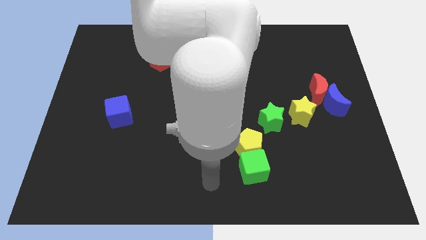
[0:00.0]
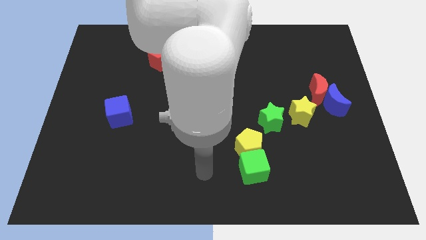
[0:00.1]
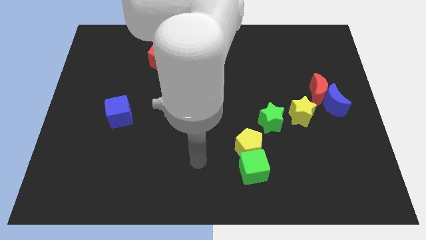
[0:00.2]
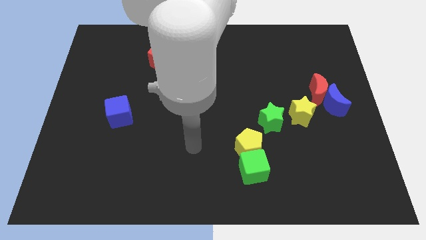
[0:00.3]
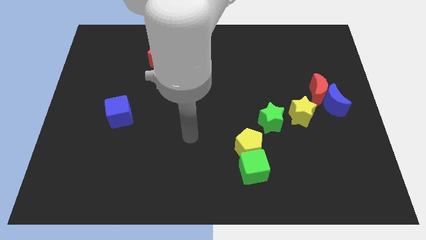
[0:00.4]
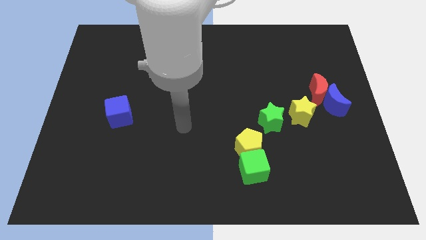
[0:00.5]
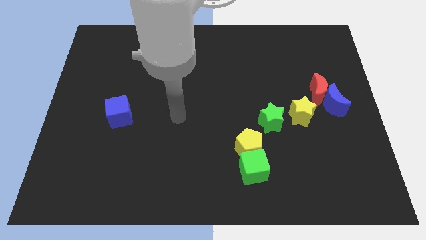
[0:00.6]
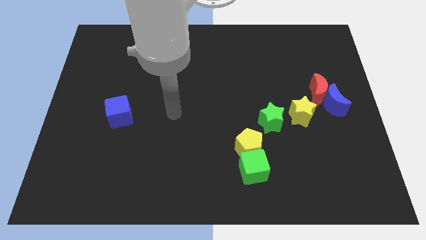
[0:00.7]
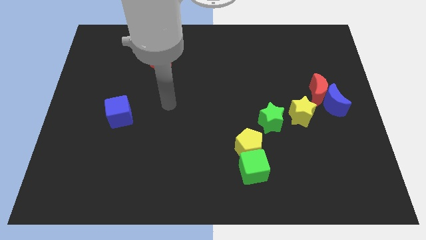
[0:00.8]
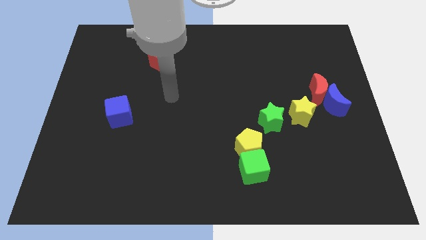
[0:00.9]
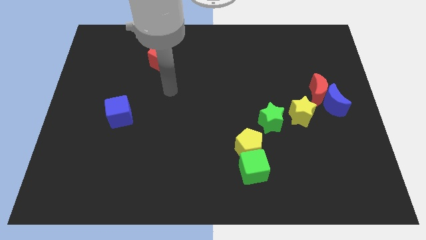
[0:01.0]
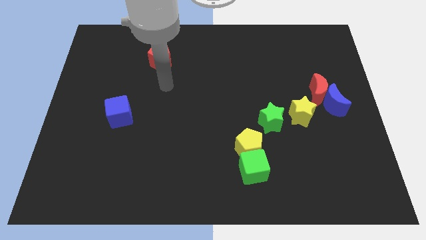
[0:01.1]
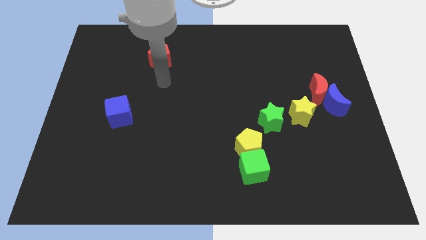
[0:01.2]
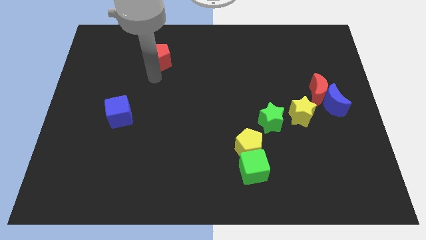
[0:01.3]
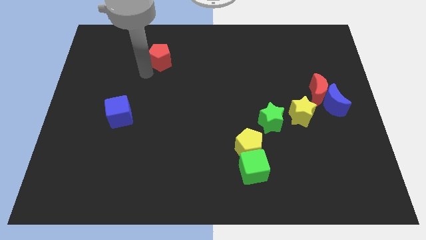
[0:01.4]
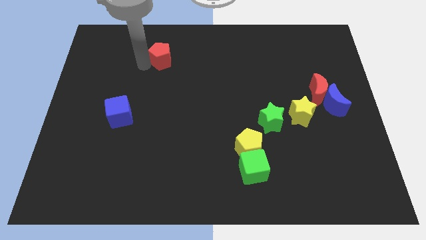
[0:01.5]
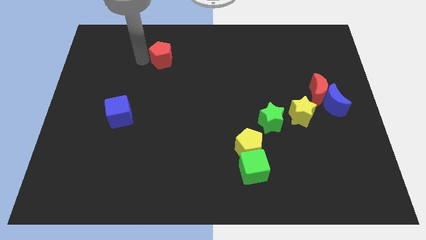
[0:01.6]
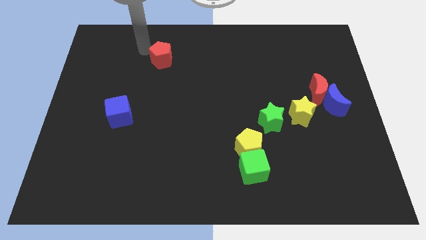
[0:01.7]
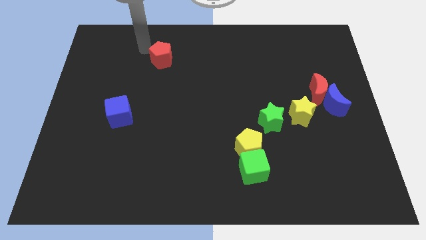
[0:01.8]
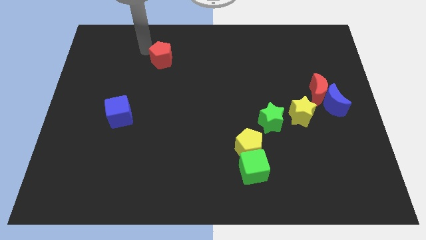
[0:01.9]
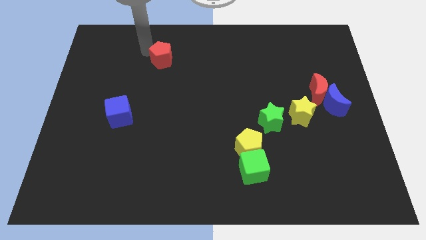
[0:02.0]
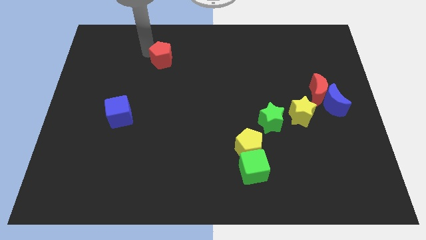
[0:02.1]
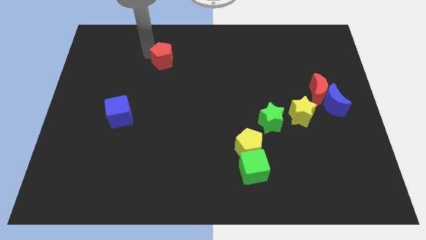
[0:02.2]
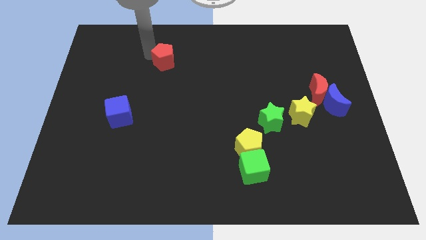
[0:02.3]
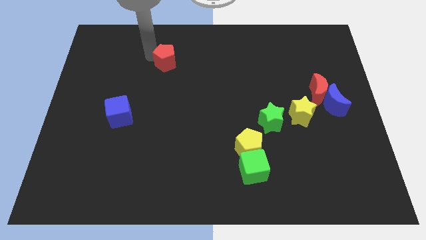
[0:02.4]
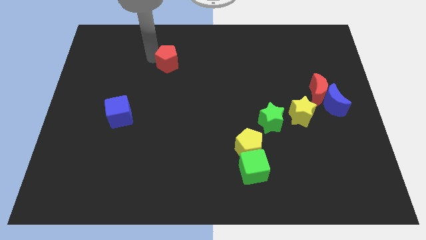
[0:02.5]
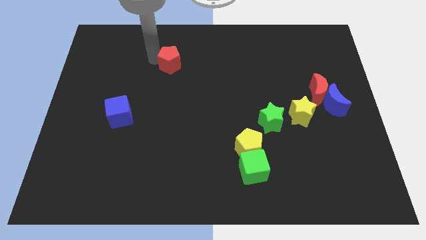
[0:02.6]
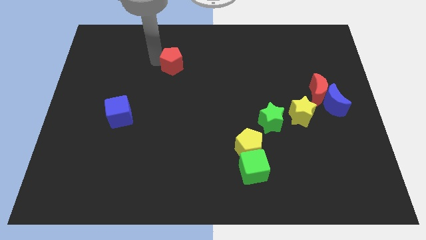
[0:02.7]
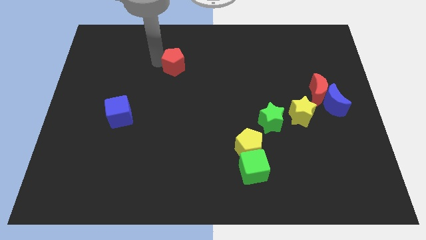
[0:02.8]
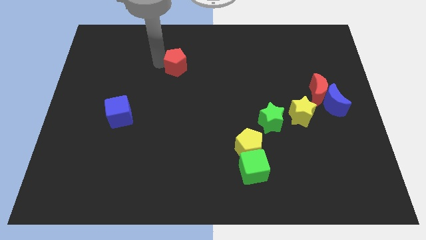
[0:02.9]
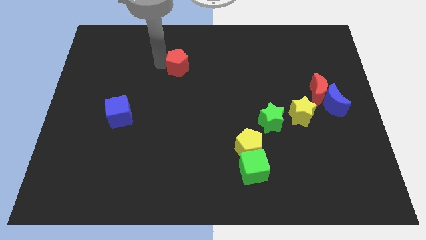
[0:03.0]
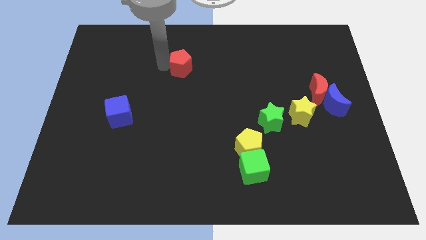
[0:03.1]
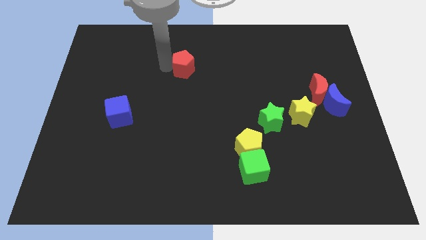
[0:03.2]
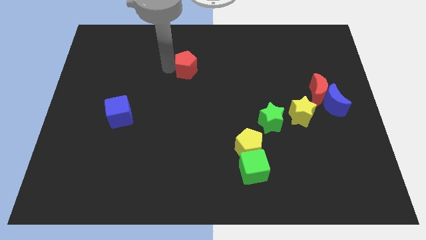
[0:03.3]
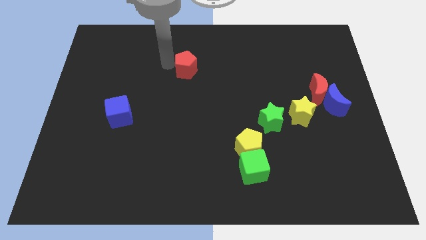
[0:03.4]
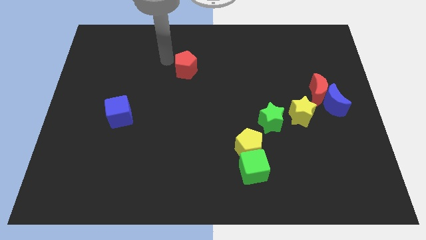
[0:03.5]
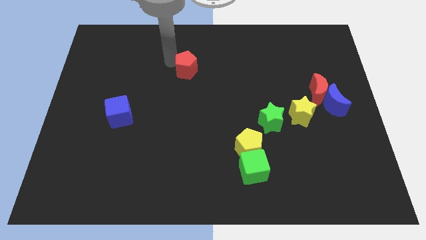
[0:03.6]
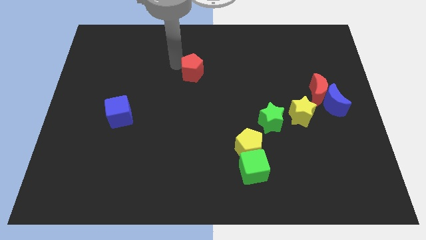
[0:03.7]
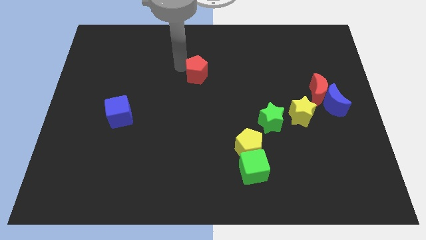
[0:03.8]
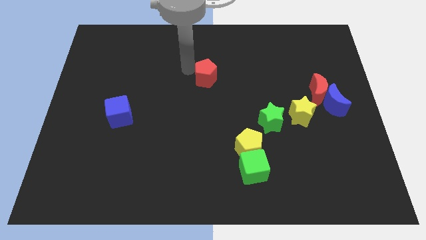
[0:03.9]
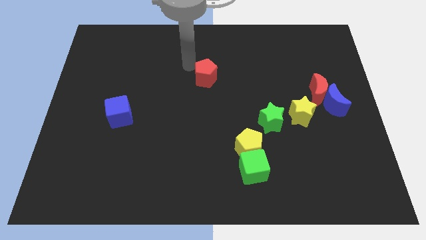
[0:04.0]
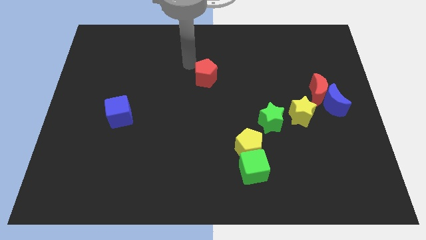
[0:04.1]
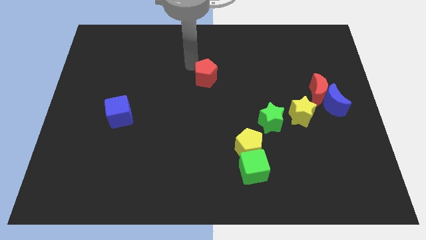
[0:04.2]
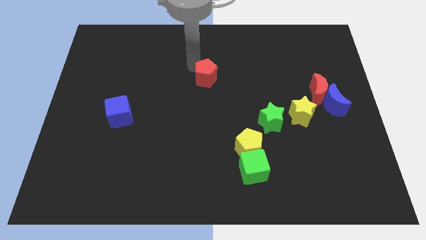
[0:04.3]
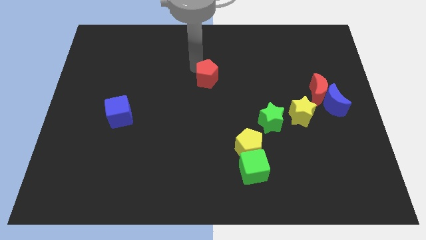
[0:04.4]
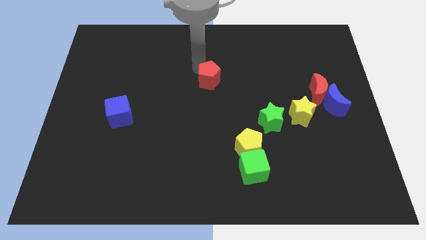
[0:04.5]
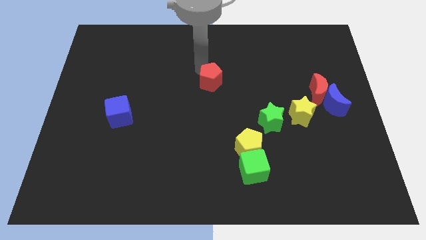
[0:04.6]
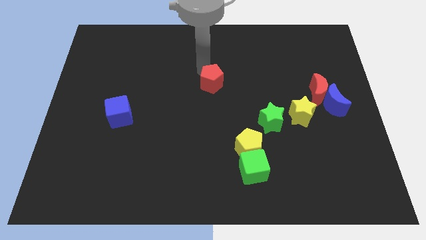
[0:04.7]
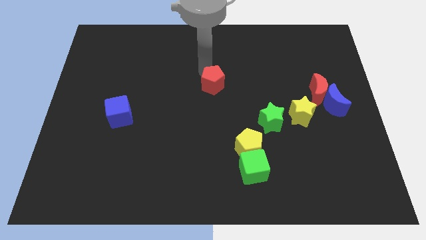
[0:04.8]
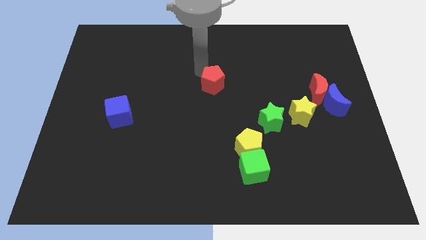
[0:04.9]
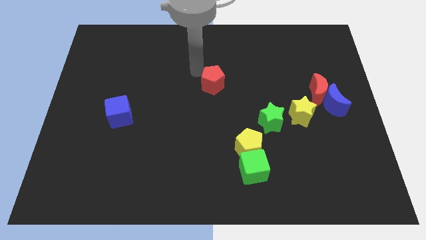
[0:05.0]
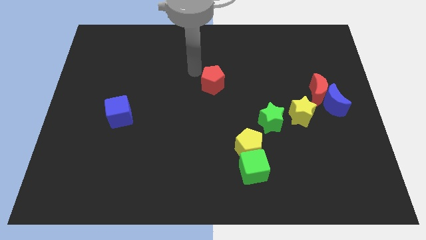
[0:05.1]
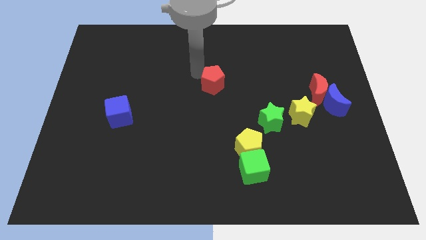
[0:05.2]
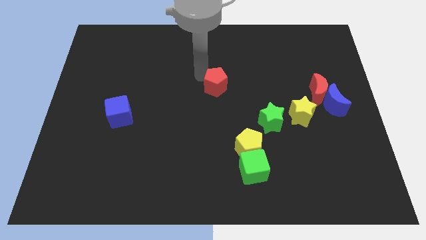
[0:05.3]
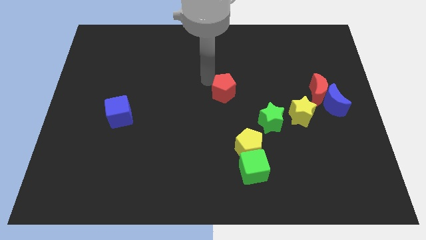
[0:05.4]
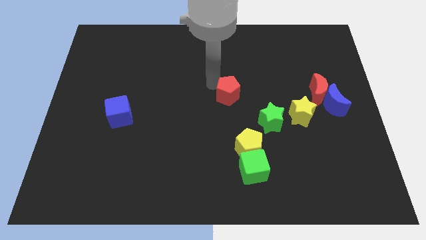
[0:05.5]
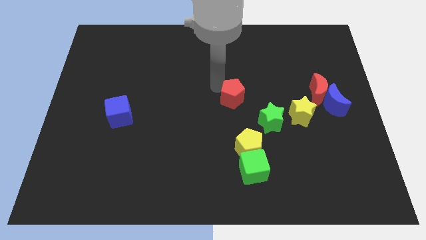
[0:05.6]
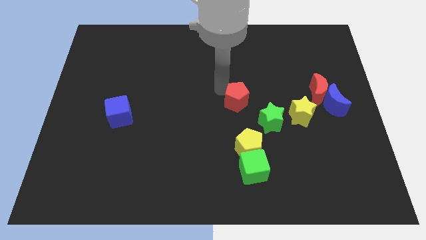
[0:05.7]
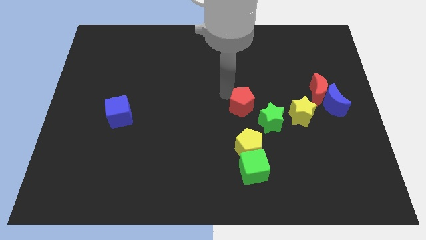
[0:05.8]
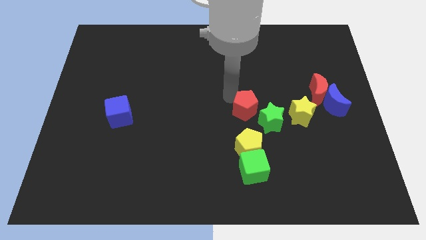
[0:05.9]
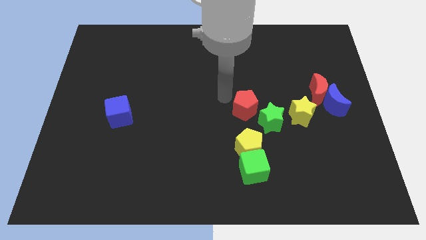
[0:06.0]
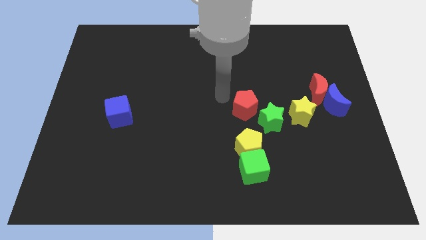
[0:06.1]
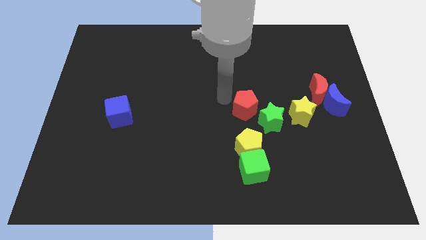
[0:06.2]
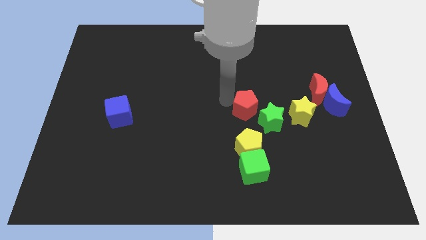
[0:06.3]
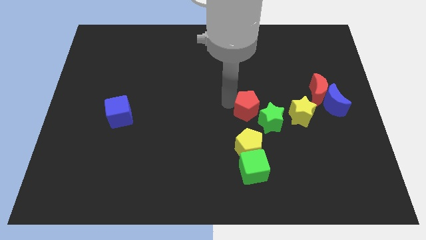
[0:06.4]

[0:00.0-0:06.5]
push the red pentagon to the green star

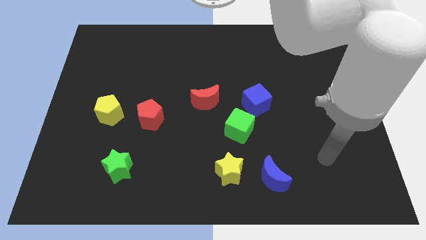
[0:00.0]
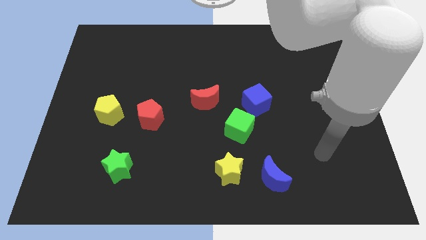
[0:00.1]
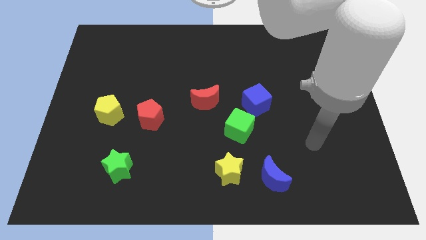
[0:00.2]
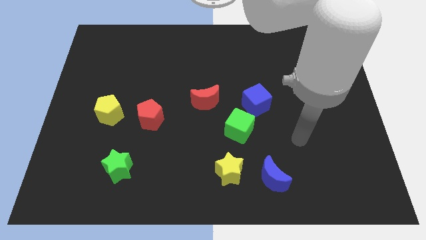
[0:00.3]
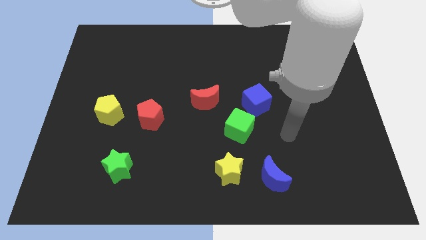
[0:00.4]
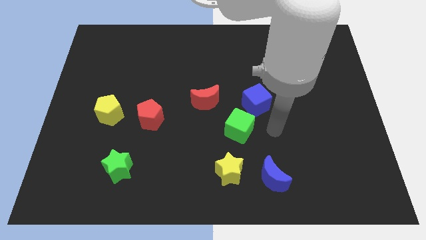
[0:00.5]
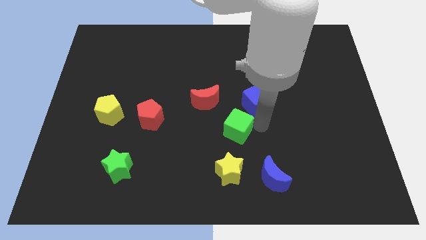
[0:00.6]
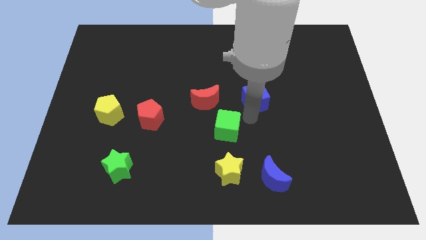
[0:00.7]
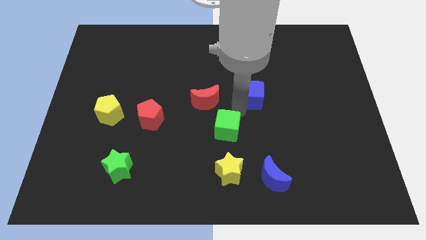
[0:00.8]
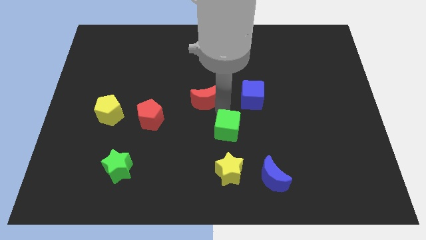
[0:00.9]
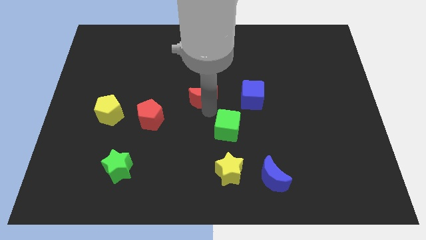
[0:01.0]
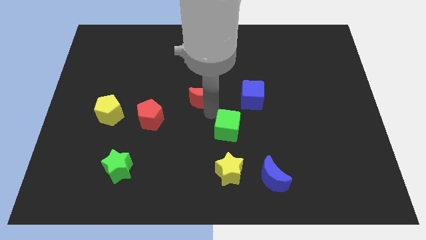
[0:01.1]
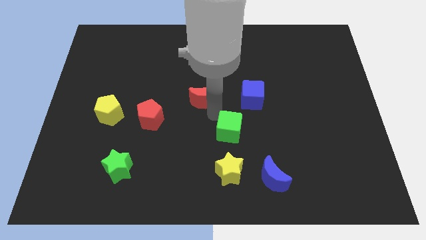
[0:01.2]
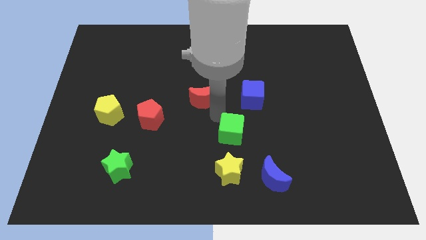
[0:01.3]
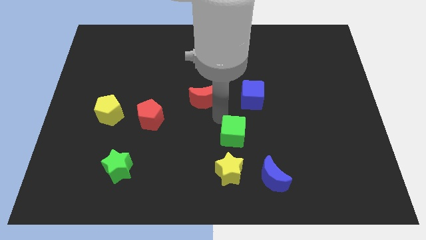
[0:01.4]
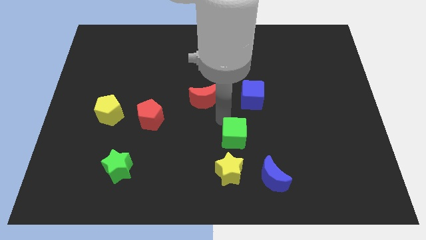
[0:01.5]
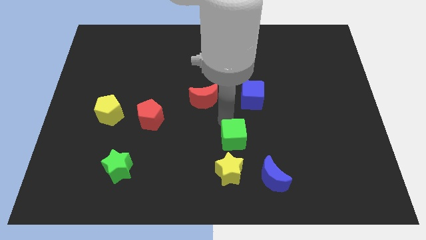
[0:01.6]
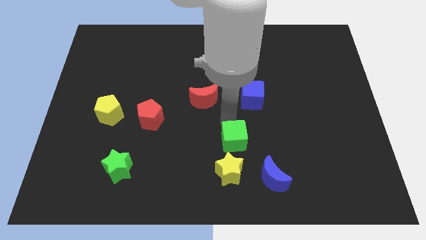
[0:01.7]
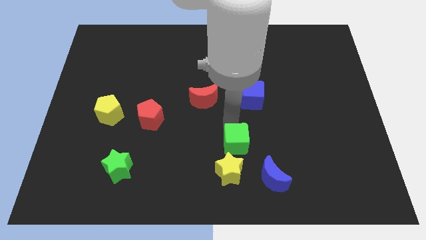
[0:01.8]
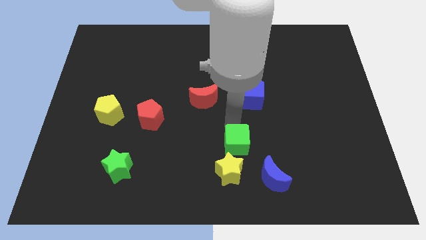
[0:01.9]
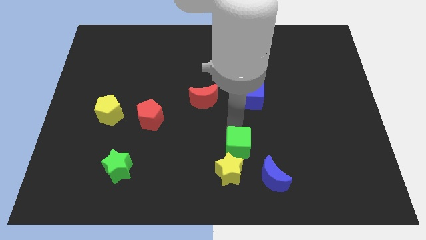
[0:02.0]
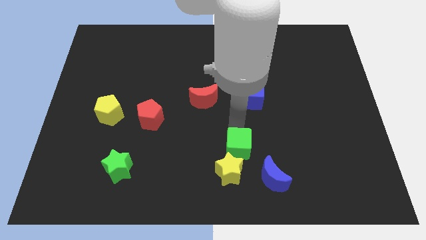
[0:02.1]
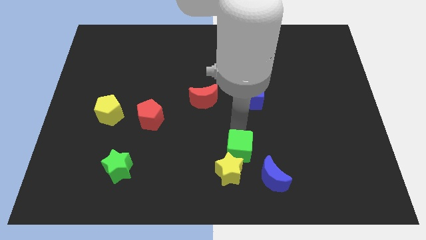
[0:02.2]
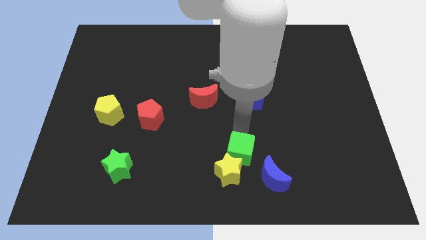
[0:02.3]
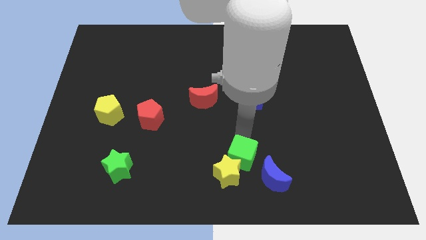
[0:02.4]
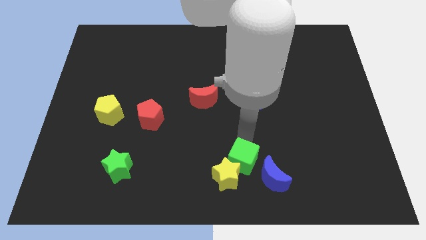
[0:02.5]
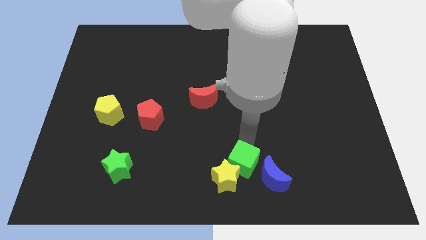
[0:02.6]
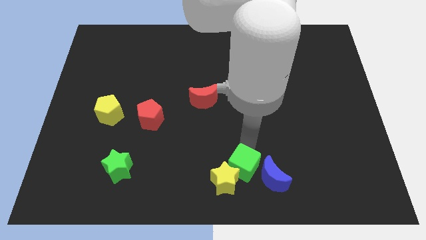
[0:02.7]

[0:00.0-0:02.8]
push the green cube next to the blue moon
